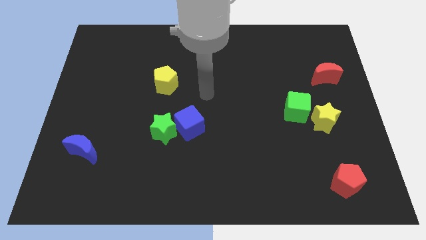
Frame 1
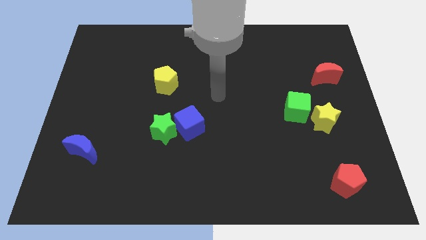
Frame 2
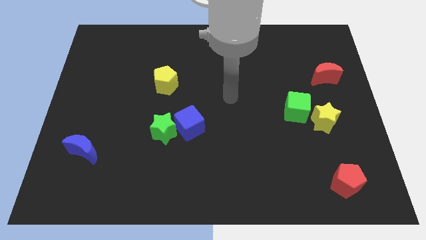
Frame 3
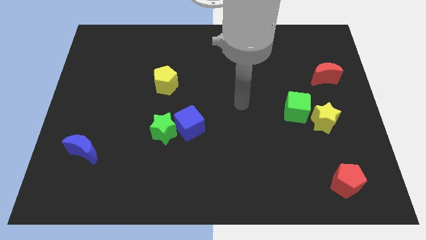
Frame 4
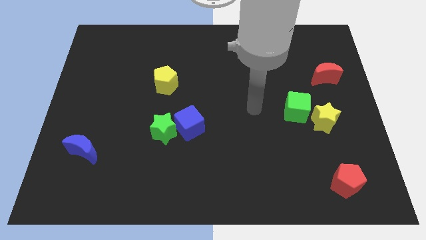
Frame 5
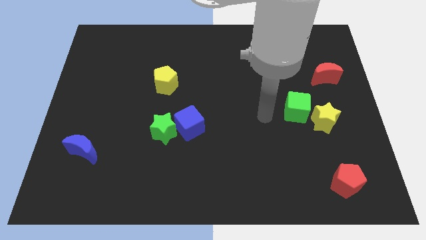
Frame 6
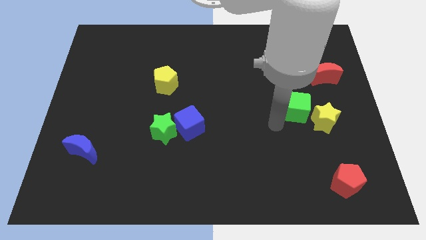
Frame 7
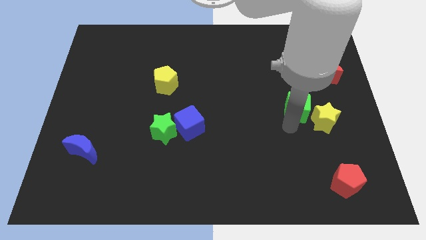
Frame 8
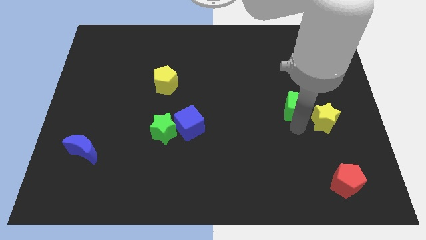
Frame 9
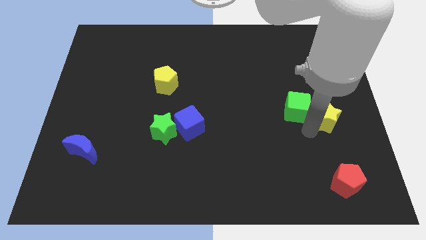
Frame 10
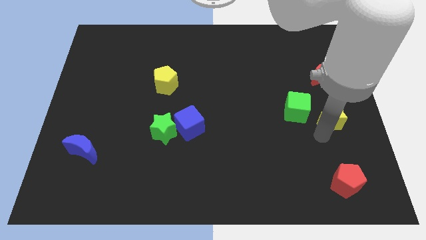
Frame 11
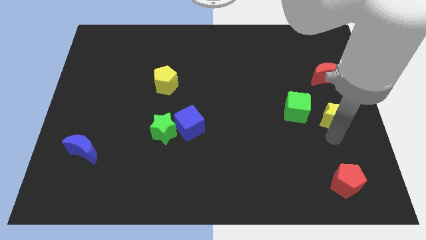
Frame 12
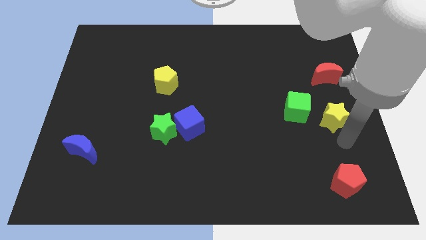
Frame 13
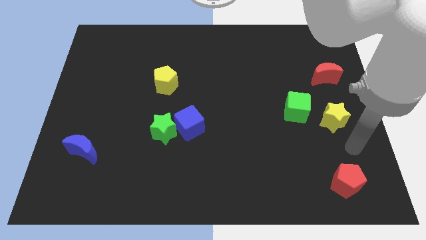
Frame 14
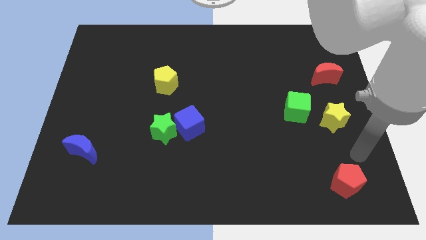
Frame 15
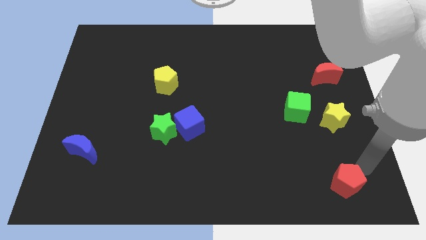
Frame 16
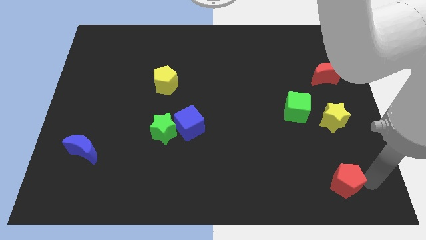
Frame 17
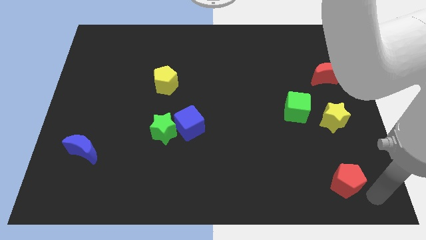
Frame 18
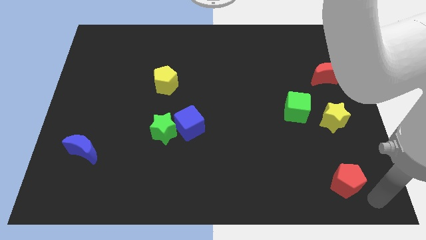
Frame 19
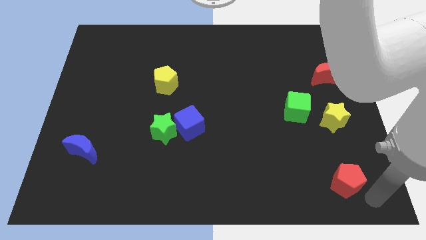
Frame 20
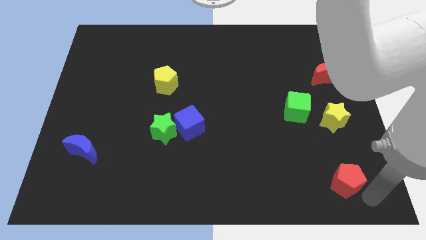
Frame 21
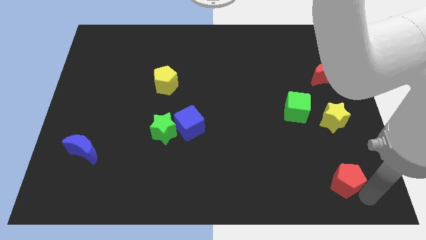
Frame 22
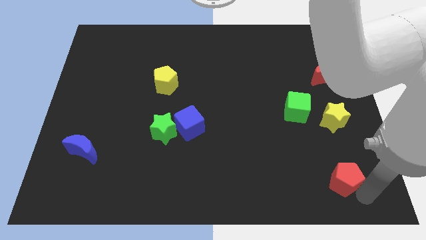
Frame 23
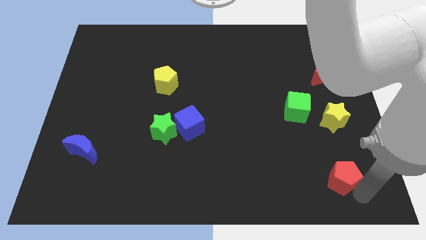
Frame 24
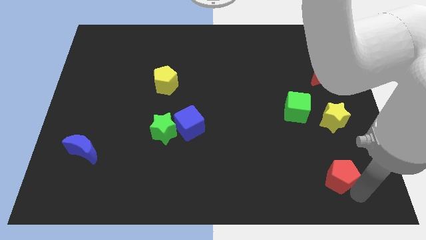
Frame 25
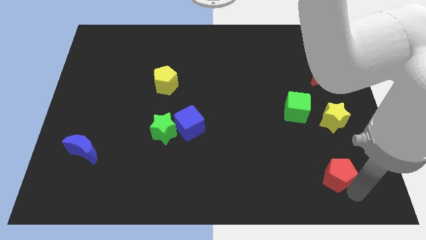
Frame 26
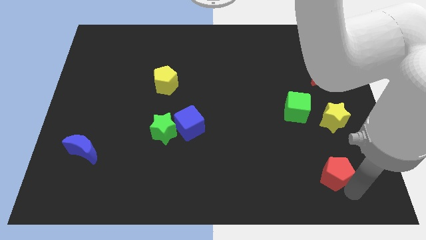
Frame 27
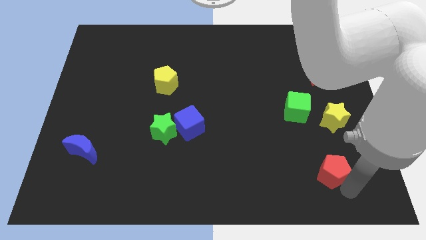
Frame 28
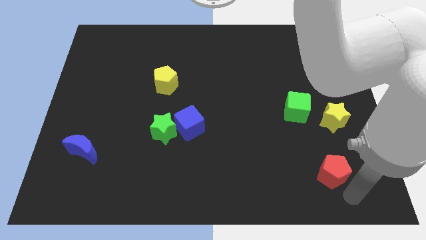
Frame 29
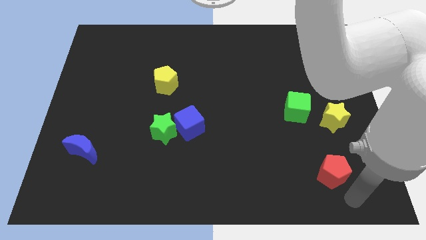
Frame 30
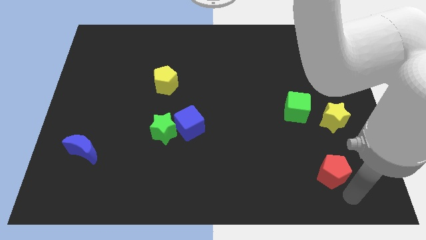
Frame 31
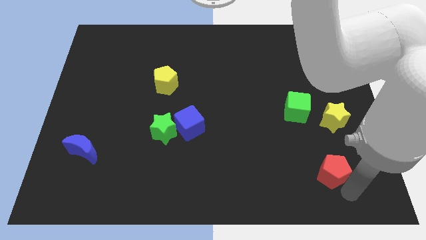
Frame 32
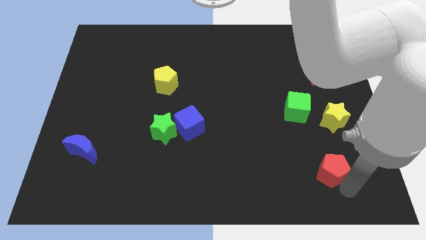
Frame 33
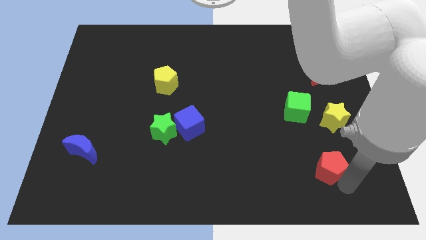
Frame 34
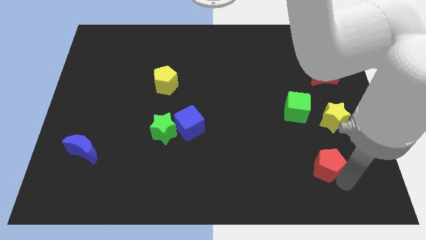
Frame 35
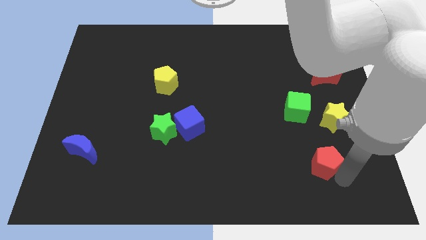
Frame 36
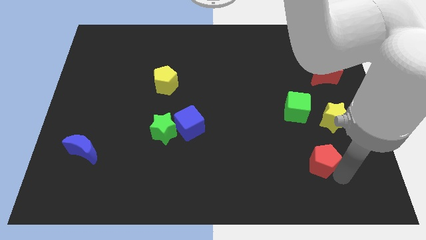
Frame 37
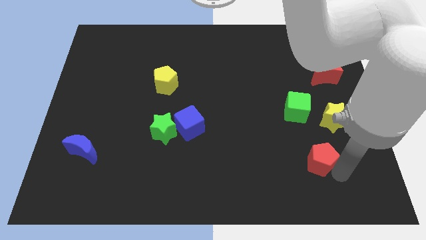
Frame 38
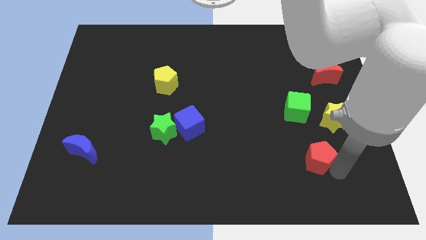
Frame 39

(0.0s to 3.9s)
move the red pentagon somewhat diagonally up and left

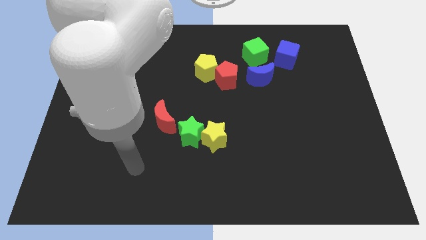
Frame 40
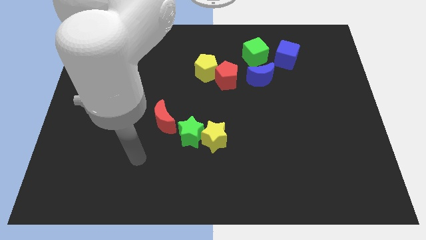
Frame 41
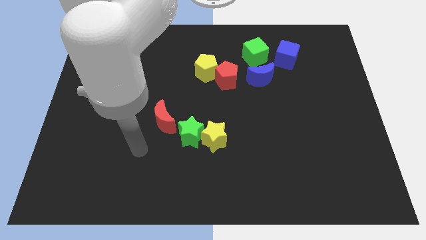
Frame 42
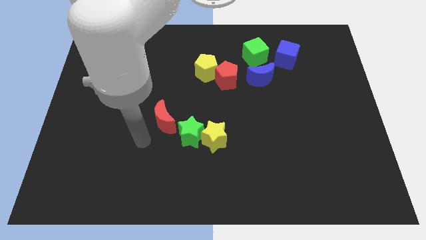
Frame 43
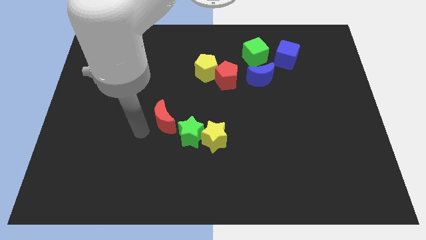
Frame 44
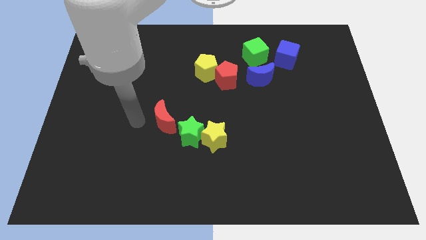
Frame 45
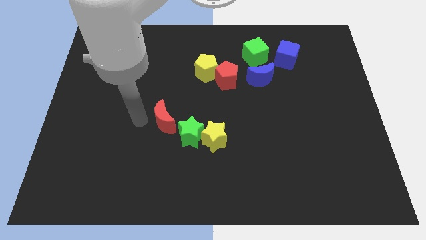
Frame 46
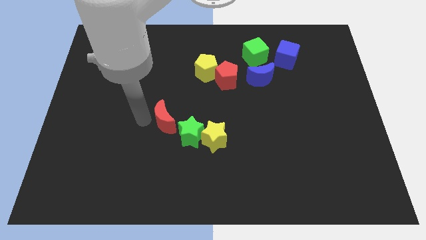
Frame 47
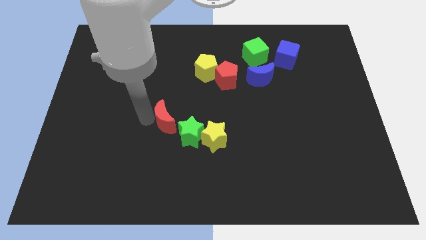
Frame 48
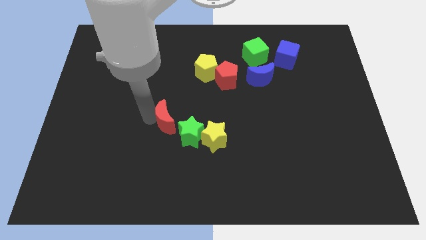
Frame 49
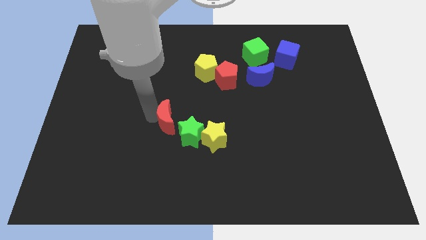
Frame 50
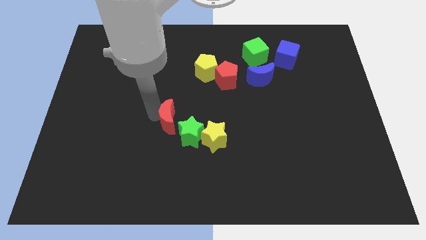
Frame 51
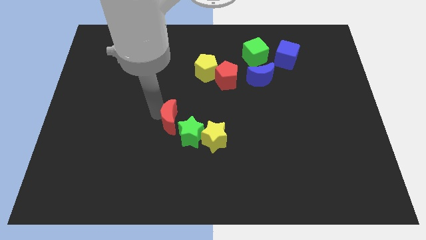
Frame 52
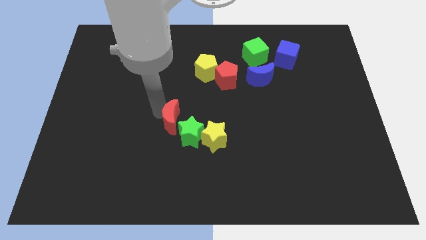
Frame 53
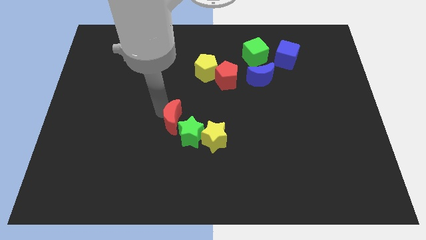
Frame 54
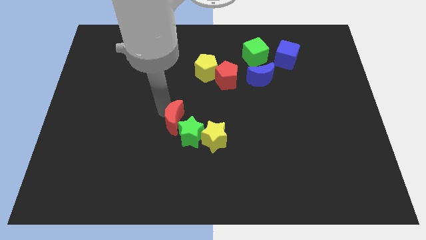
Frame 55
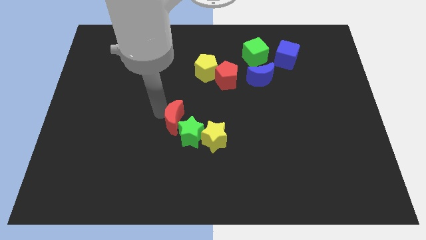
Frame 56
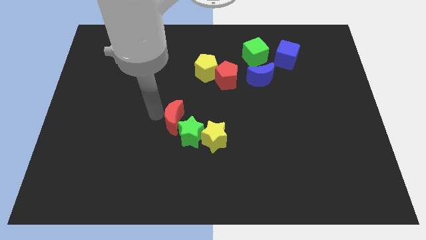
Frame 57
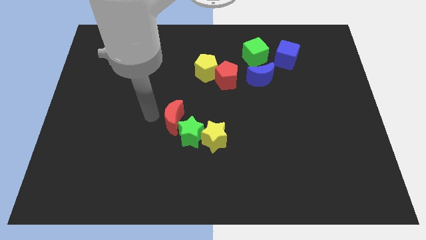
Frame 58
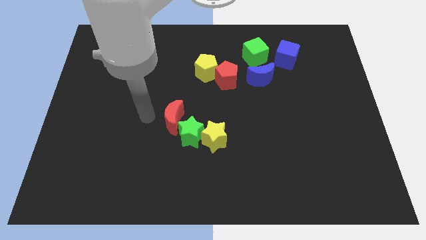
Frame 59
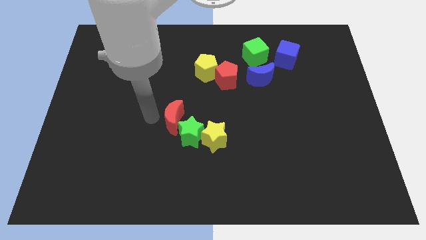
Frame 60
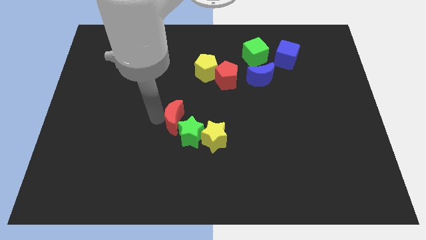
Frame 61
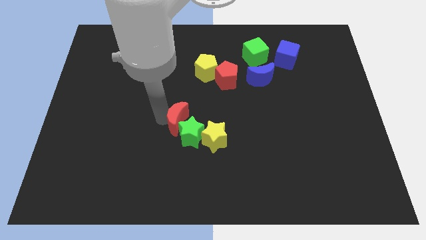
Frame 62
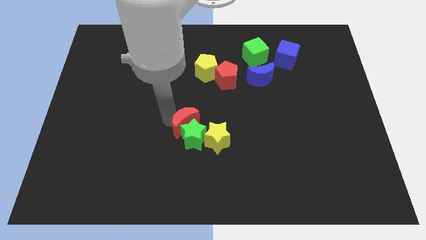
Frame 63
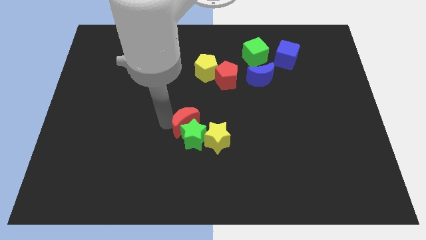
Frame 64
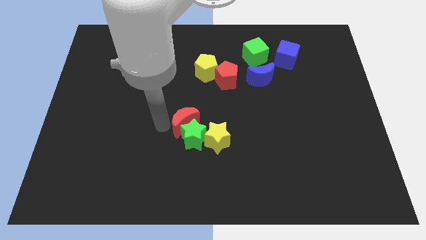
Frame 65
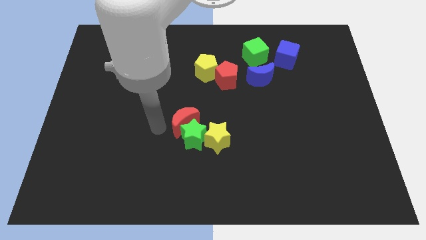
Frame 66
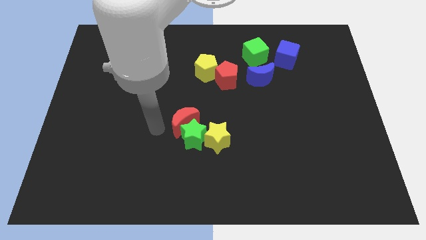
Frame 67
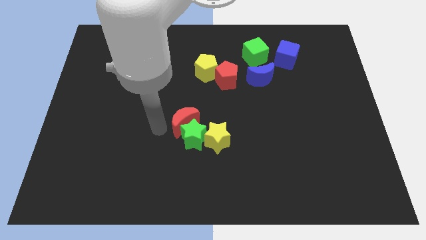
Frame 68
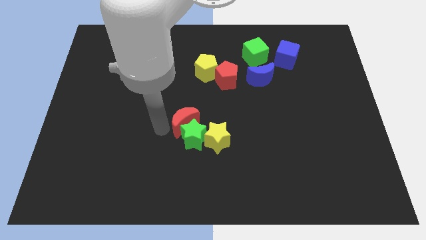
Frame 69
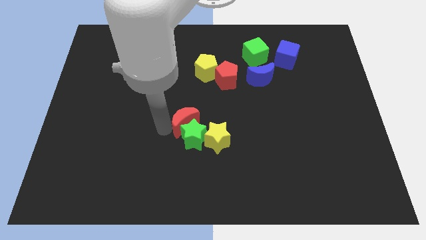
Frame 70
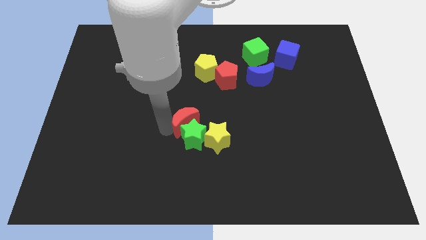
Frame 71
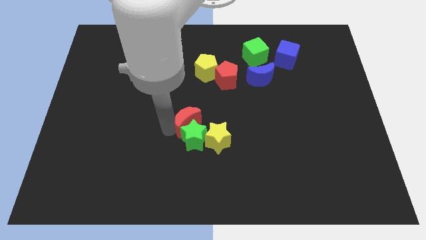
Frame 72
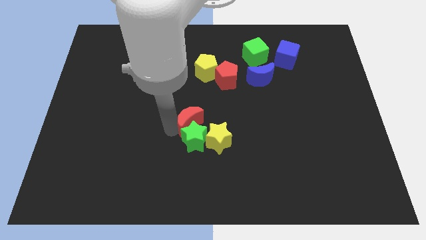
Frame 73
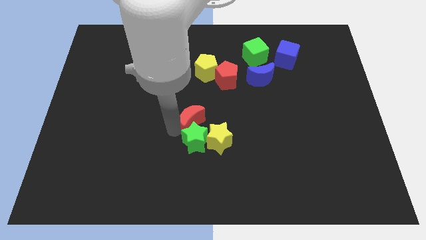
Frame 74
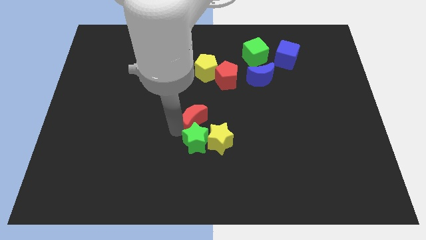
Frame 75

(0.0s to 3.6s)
slightly move the red moon right

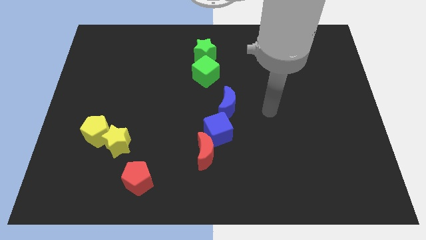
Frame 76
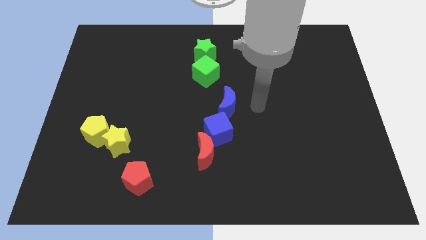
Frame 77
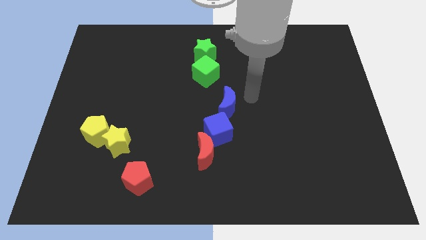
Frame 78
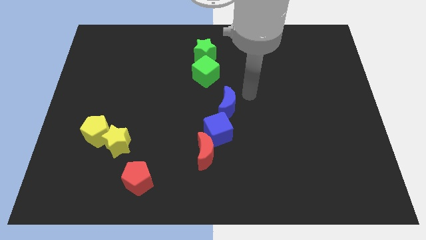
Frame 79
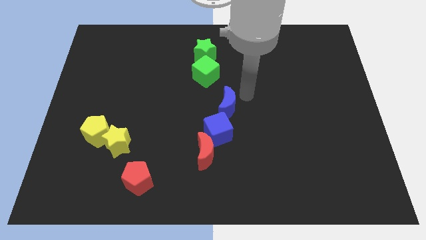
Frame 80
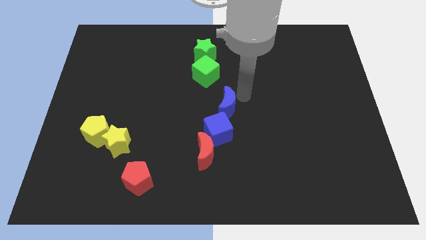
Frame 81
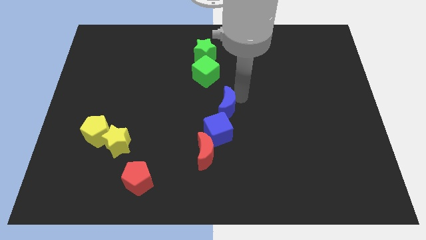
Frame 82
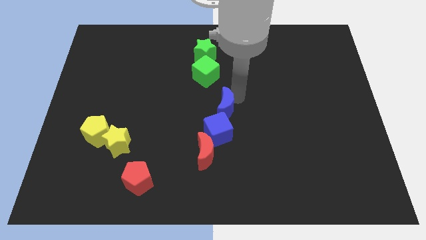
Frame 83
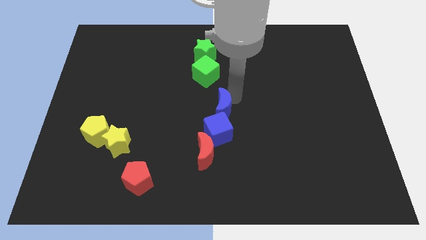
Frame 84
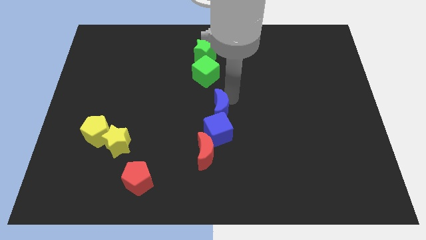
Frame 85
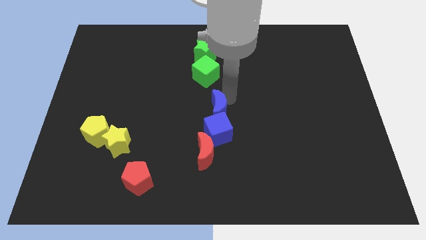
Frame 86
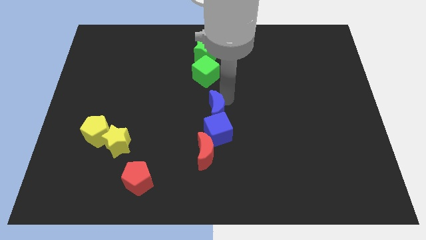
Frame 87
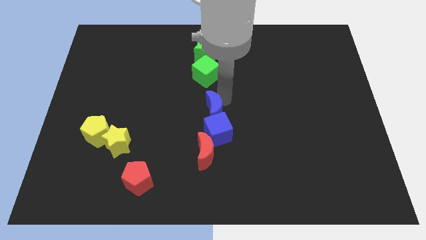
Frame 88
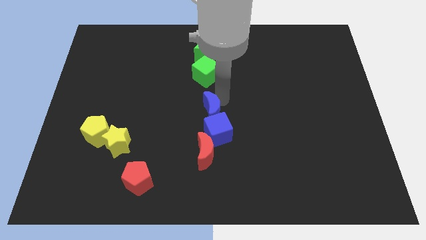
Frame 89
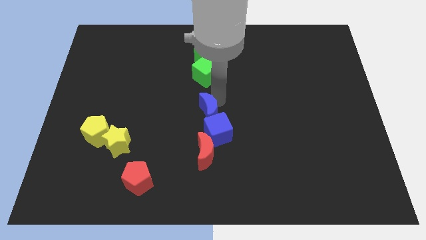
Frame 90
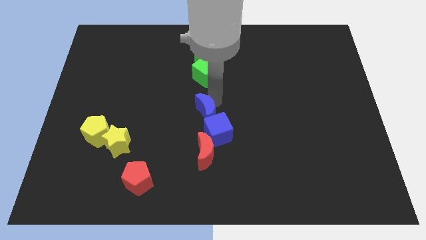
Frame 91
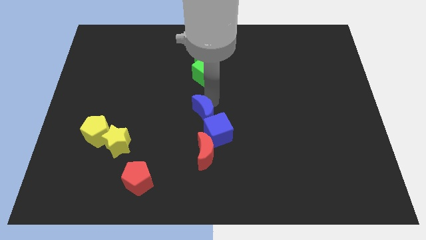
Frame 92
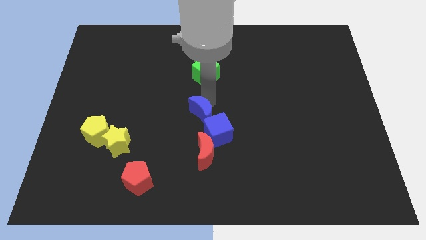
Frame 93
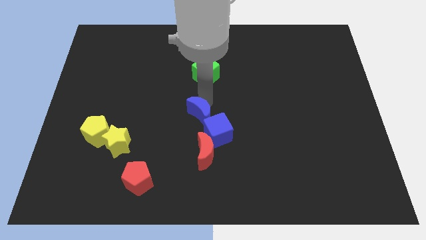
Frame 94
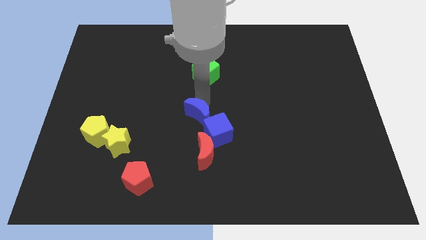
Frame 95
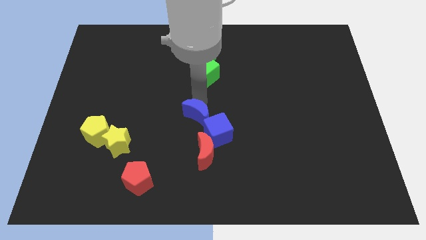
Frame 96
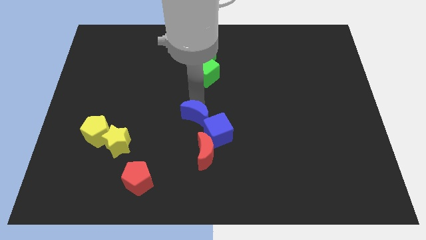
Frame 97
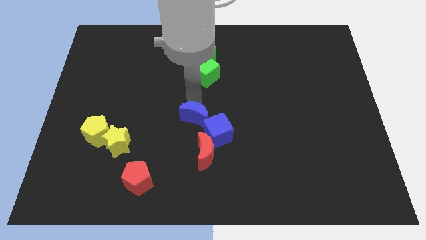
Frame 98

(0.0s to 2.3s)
slightly move the blue moon diagonally downwards and to the left
